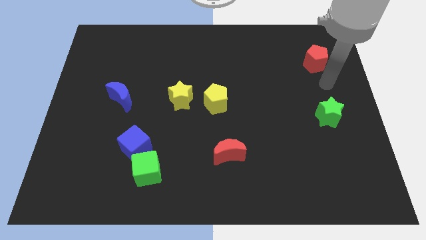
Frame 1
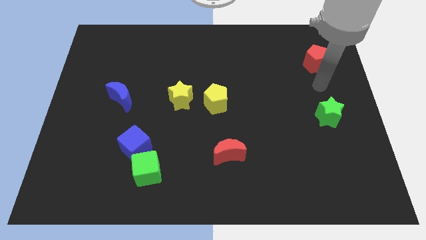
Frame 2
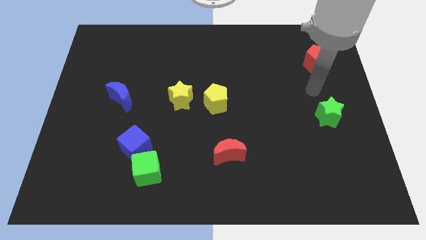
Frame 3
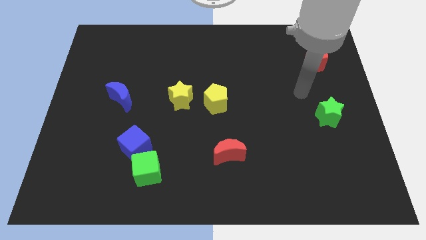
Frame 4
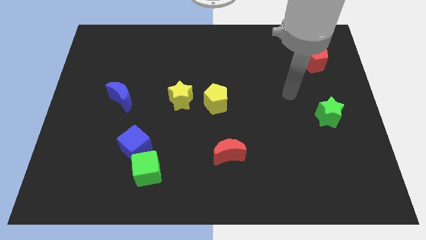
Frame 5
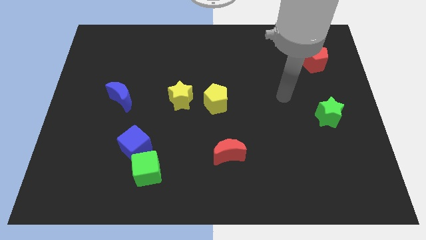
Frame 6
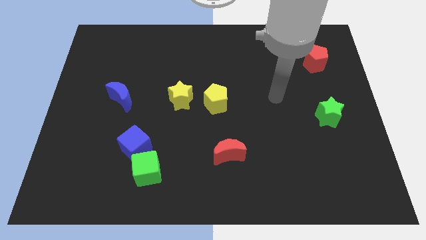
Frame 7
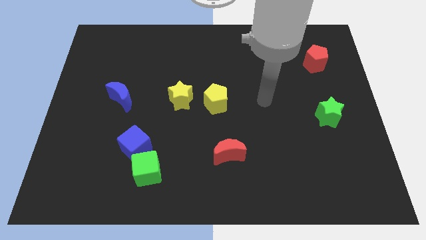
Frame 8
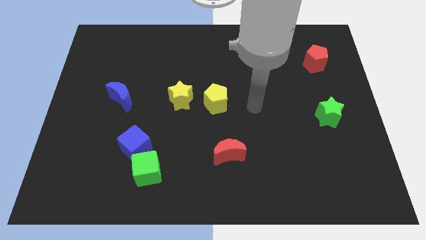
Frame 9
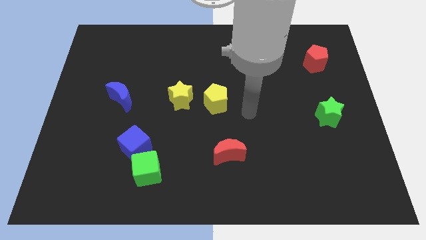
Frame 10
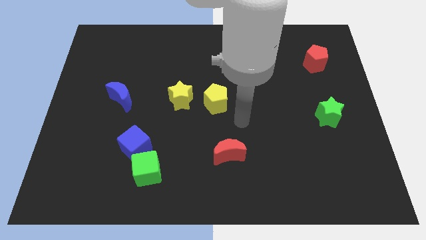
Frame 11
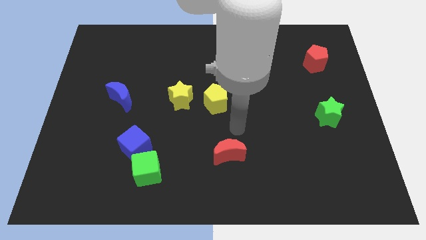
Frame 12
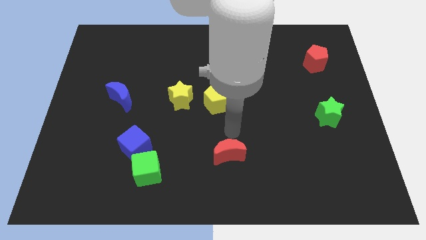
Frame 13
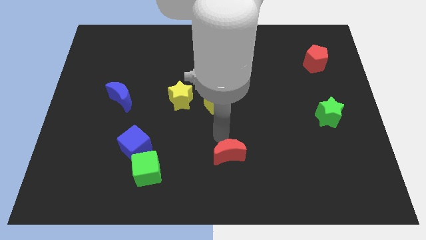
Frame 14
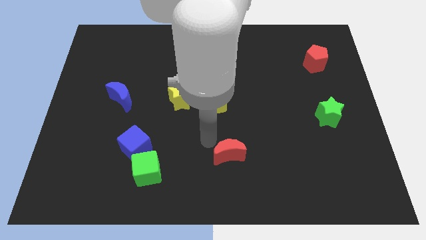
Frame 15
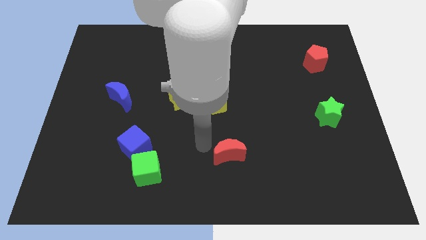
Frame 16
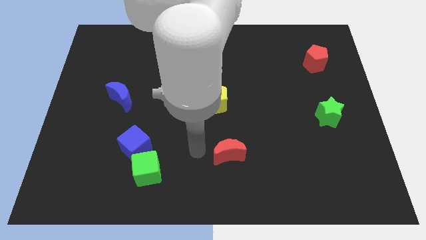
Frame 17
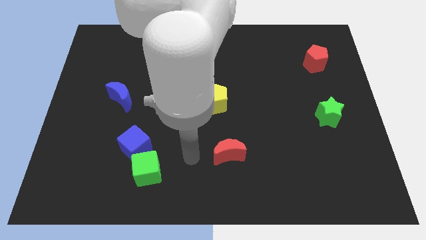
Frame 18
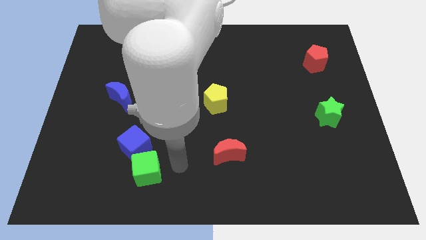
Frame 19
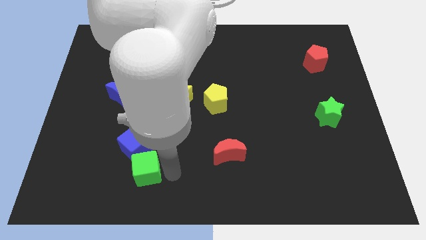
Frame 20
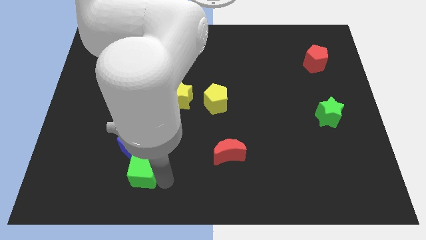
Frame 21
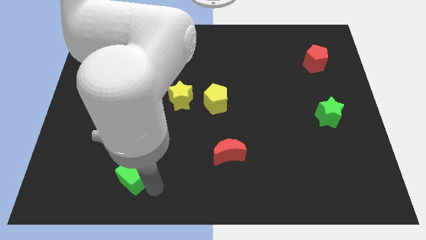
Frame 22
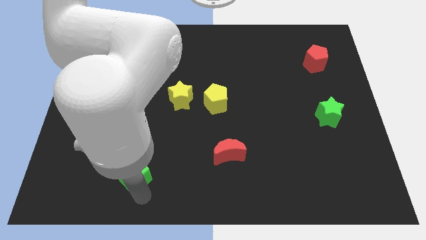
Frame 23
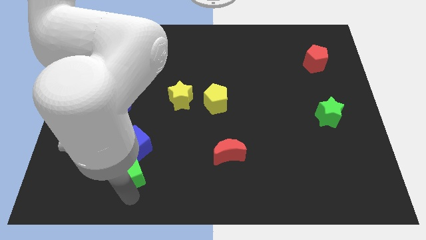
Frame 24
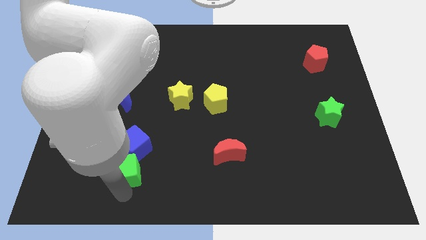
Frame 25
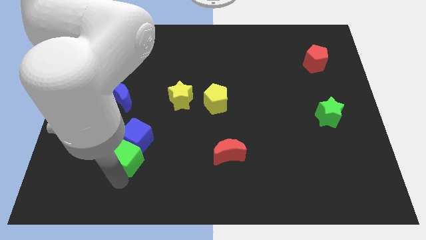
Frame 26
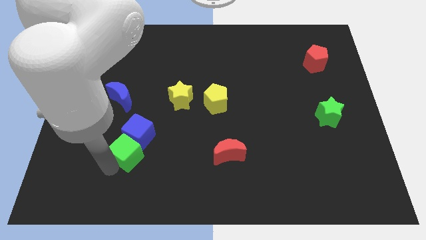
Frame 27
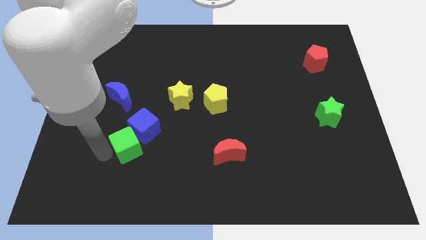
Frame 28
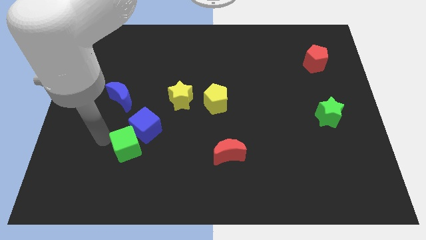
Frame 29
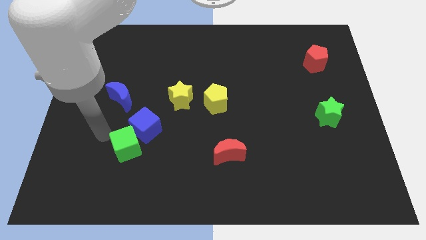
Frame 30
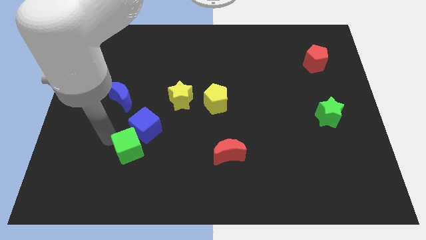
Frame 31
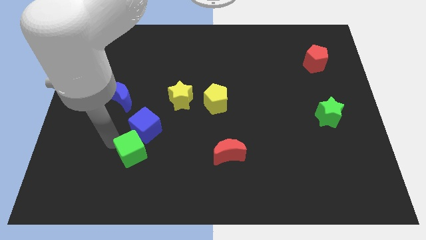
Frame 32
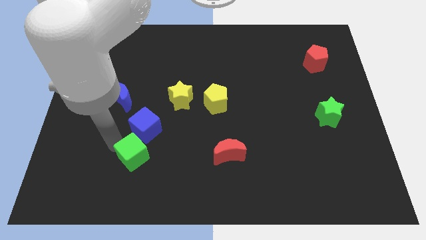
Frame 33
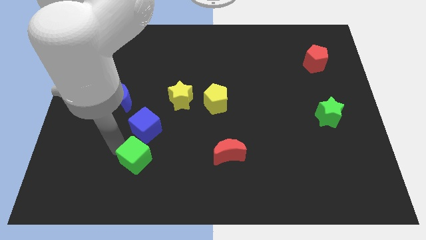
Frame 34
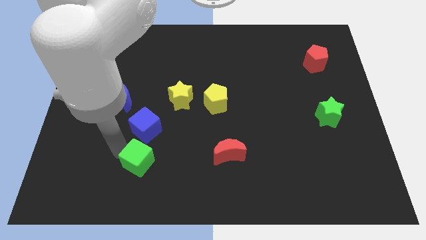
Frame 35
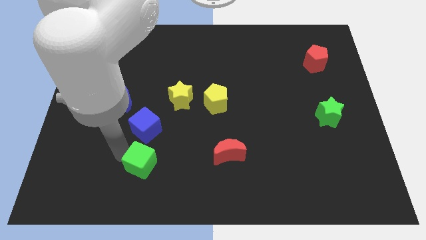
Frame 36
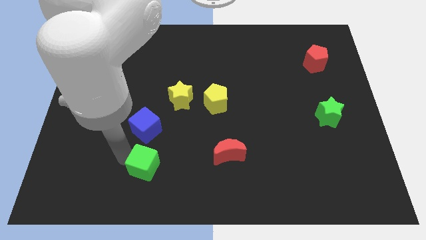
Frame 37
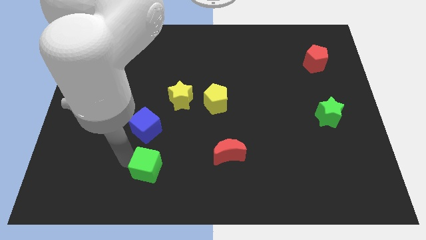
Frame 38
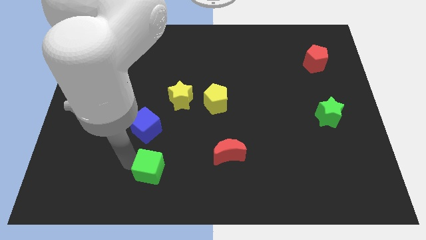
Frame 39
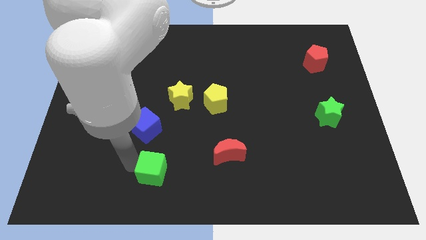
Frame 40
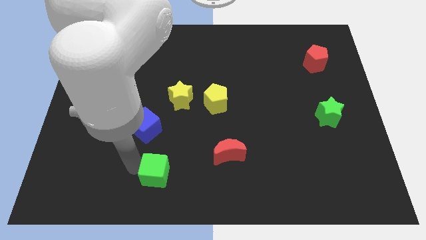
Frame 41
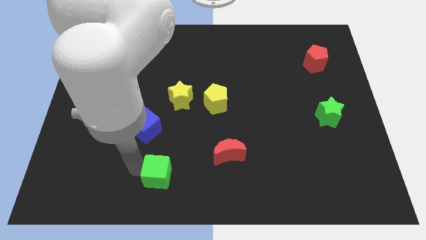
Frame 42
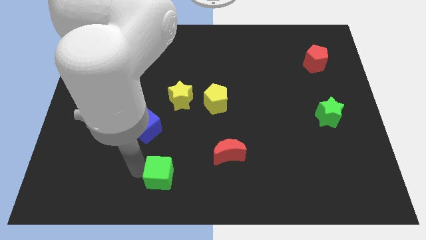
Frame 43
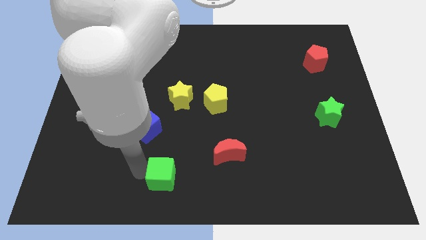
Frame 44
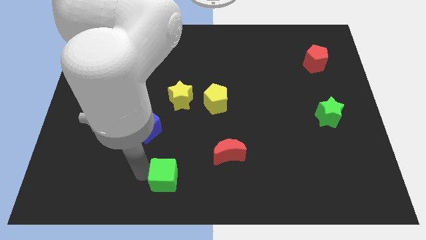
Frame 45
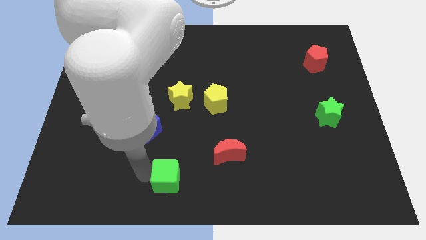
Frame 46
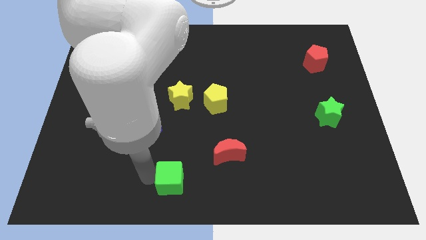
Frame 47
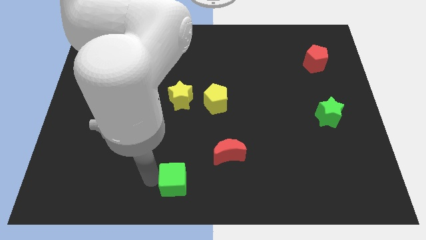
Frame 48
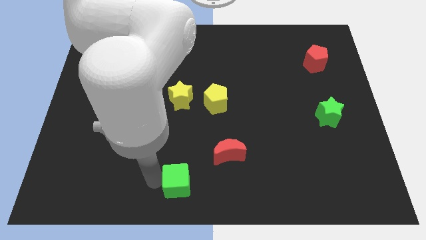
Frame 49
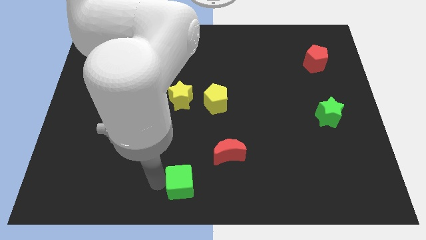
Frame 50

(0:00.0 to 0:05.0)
slightly move the green cube right

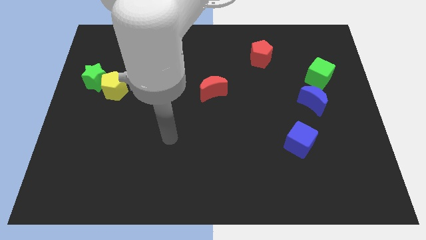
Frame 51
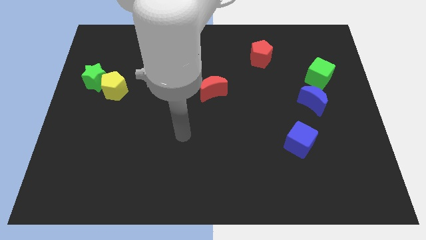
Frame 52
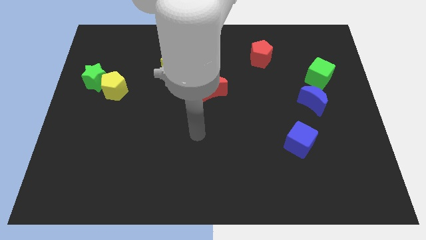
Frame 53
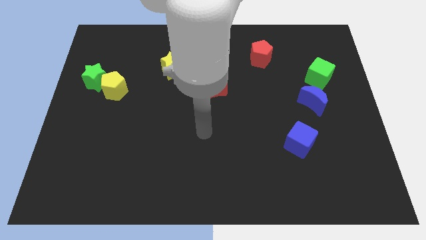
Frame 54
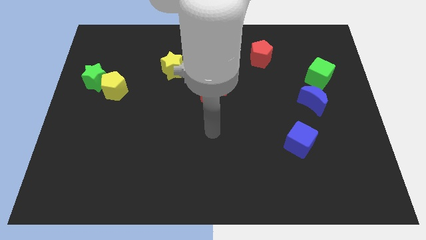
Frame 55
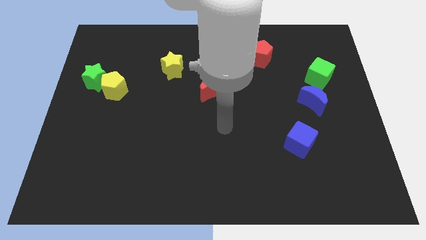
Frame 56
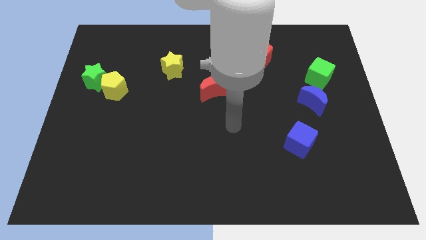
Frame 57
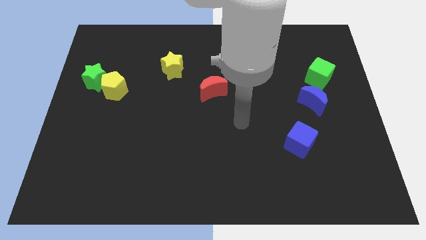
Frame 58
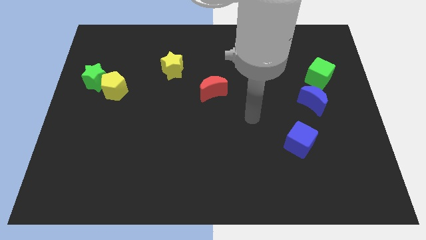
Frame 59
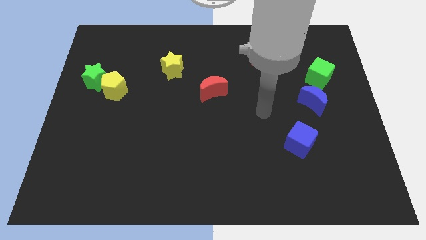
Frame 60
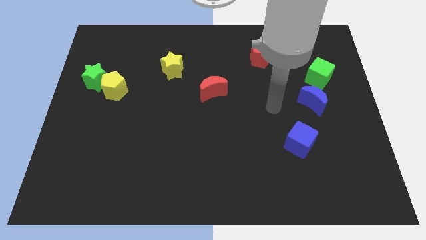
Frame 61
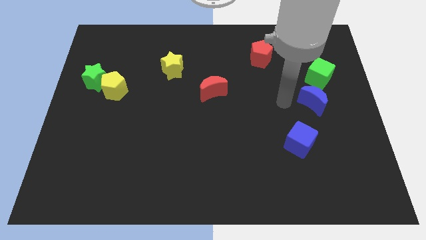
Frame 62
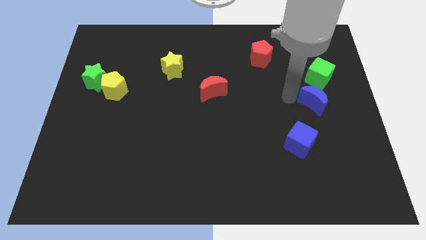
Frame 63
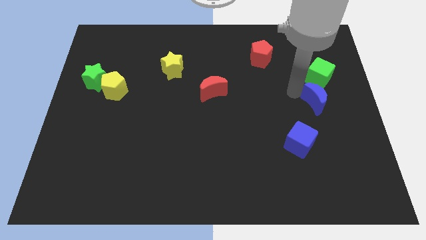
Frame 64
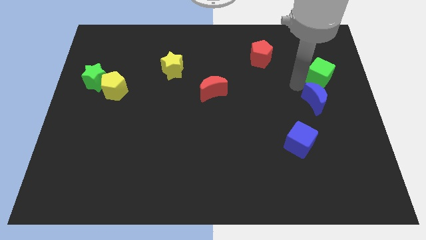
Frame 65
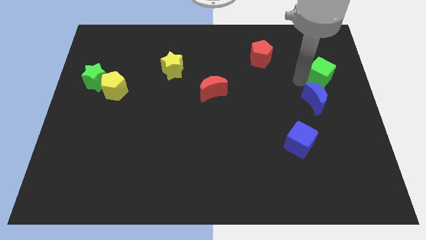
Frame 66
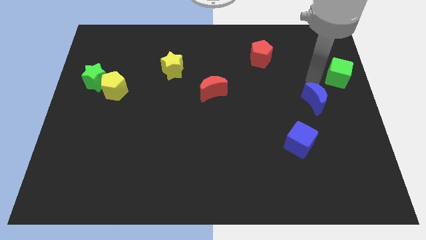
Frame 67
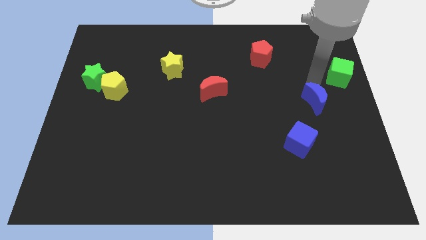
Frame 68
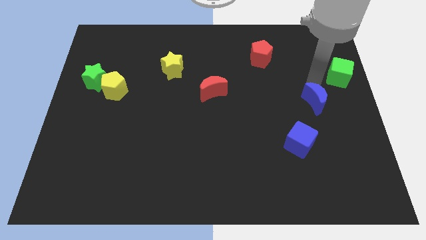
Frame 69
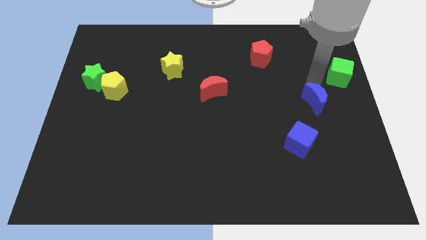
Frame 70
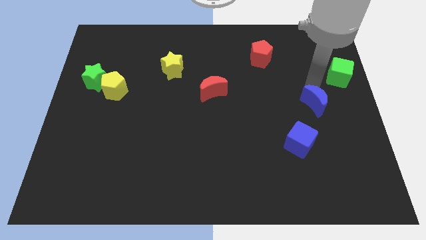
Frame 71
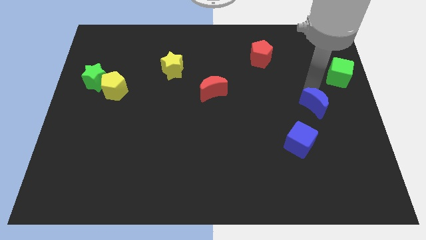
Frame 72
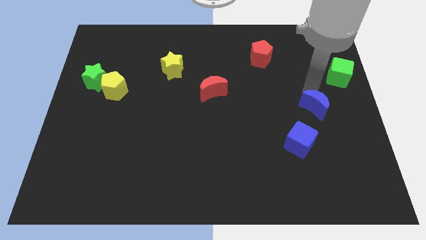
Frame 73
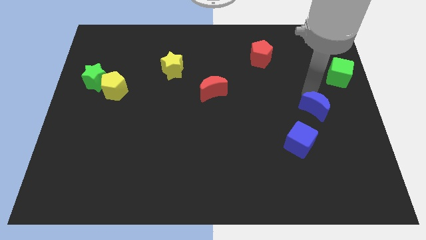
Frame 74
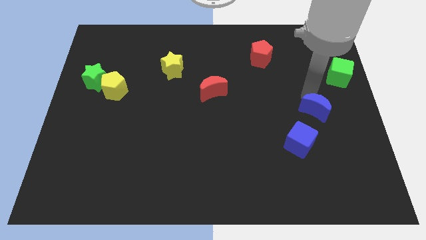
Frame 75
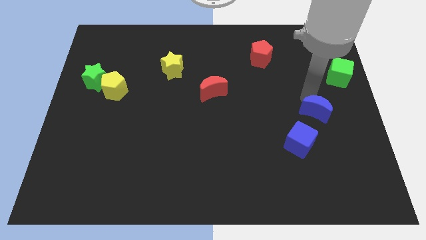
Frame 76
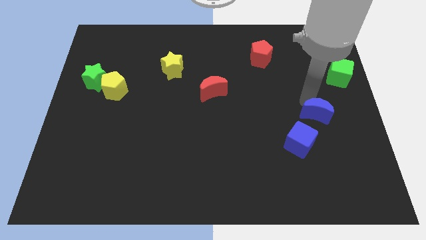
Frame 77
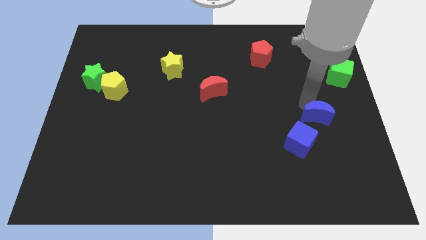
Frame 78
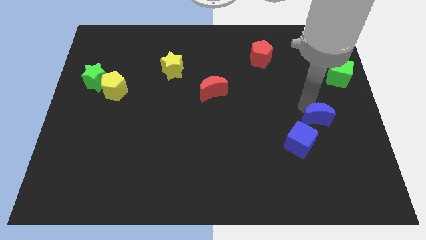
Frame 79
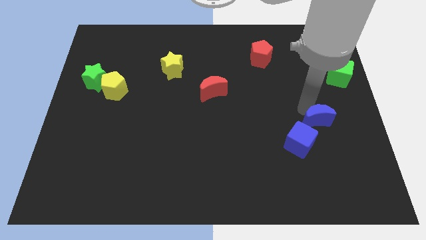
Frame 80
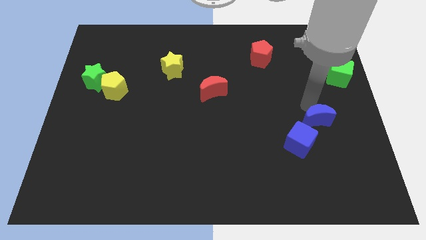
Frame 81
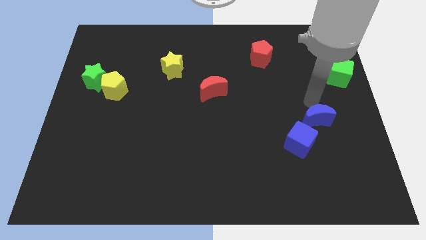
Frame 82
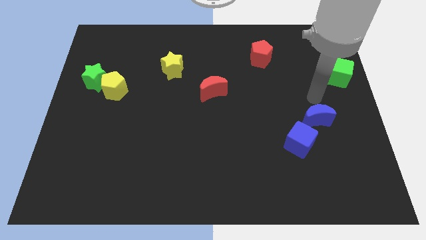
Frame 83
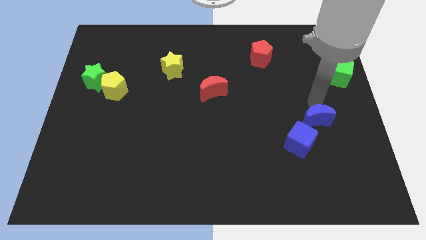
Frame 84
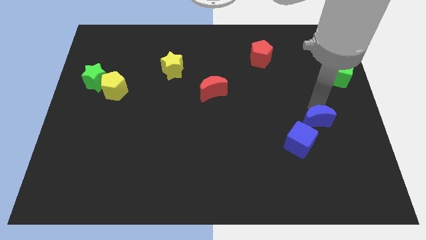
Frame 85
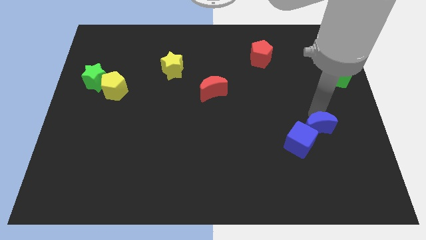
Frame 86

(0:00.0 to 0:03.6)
slightly move the blue moon downwards
